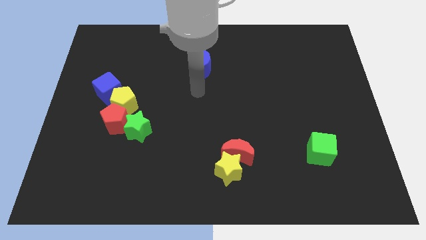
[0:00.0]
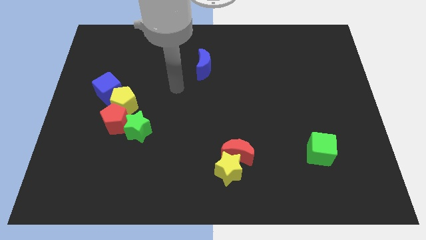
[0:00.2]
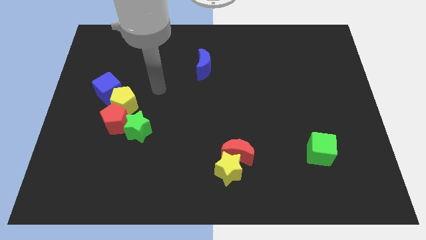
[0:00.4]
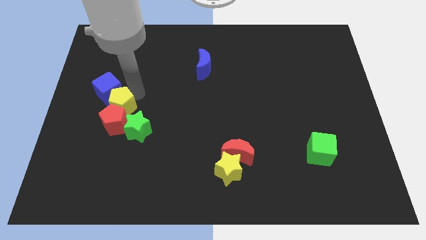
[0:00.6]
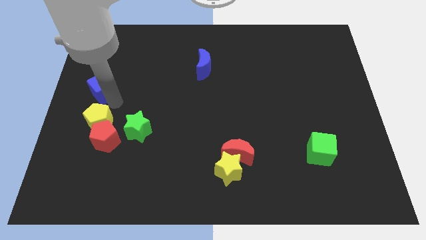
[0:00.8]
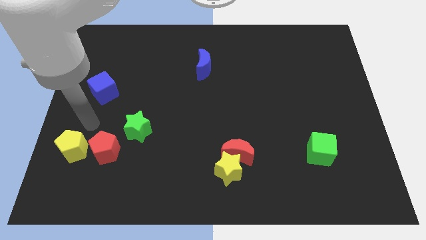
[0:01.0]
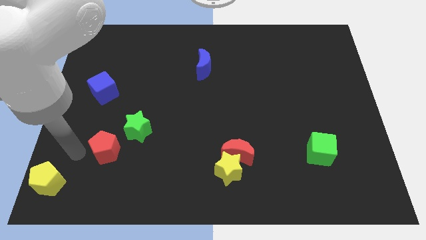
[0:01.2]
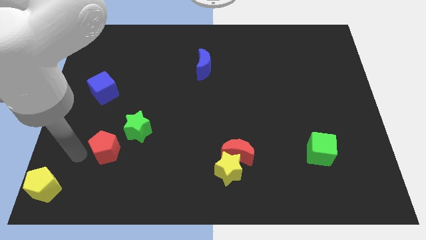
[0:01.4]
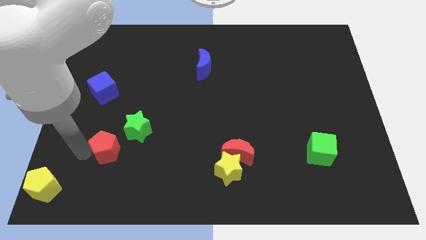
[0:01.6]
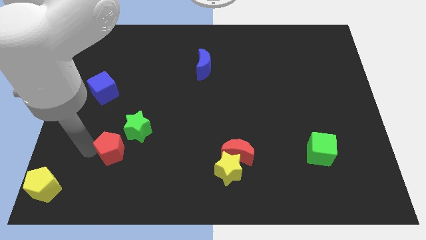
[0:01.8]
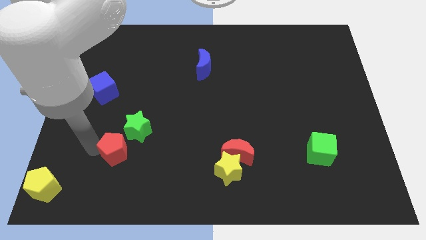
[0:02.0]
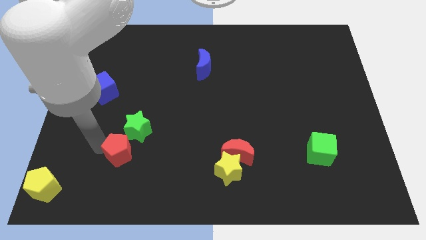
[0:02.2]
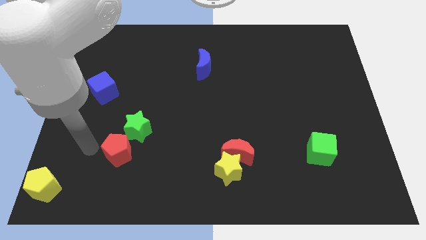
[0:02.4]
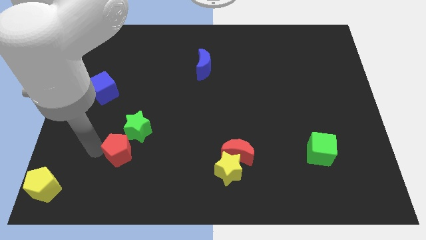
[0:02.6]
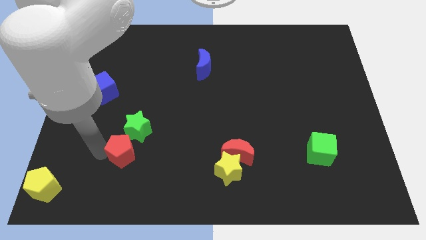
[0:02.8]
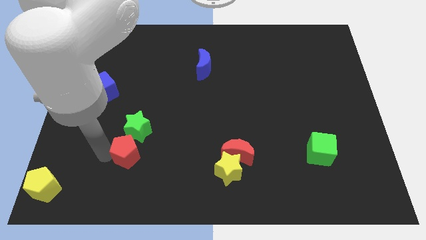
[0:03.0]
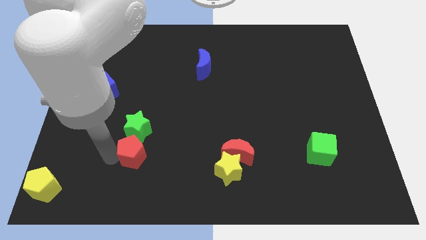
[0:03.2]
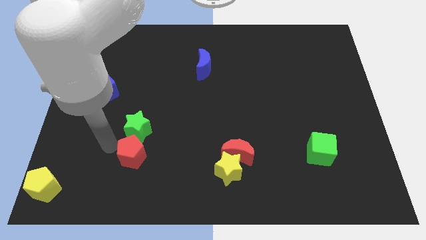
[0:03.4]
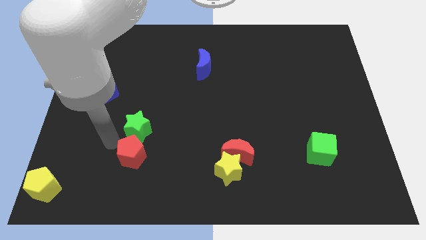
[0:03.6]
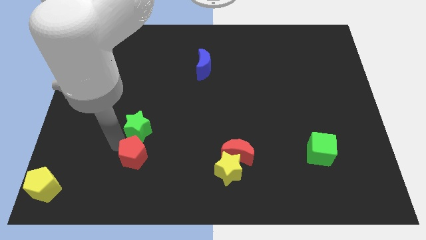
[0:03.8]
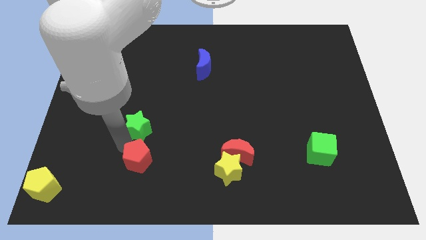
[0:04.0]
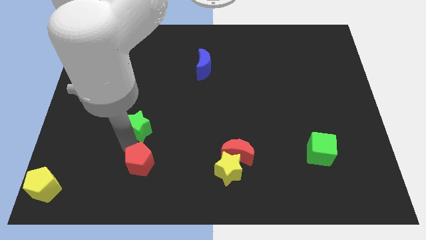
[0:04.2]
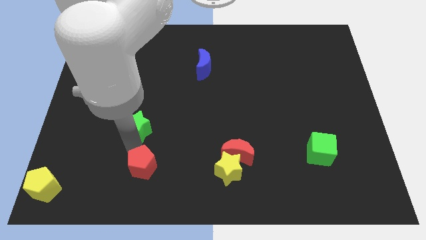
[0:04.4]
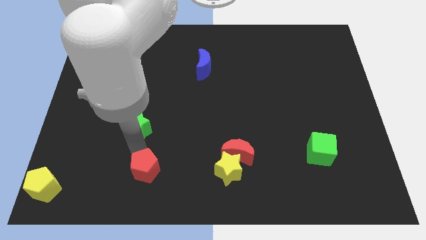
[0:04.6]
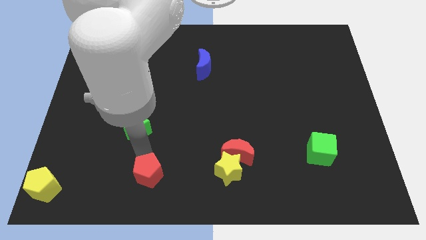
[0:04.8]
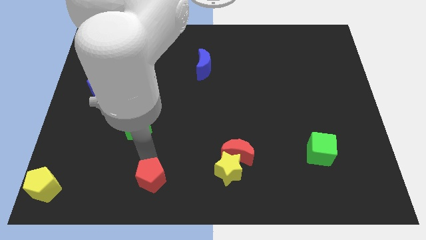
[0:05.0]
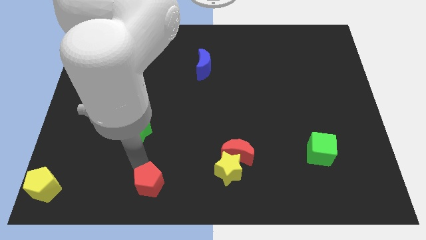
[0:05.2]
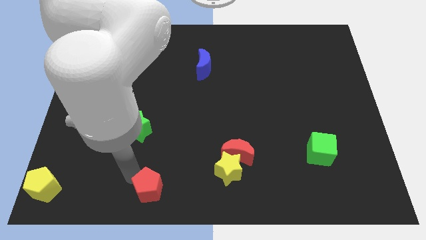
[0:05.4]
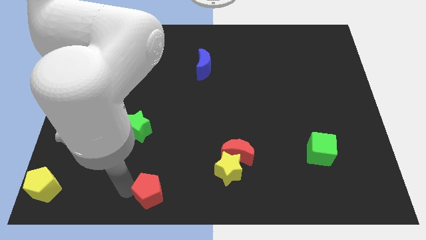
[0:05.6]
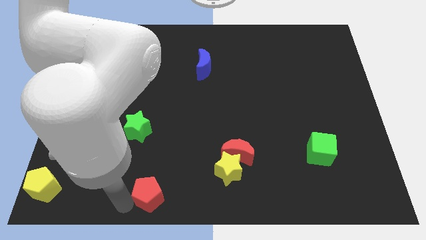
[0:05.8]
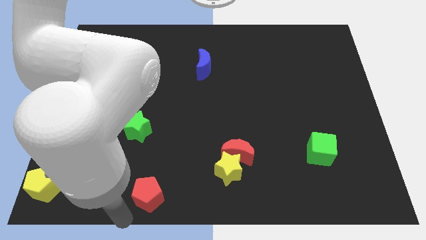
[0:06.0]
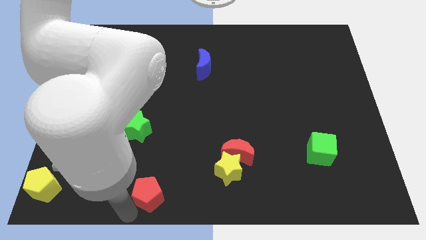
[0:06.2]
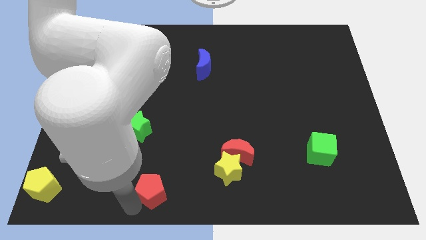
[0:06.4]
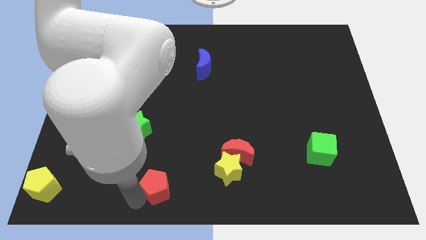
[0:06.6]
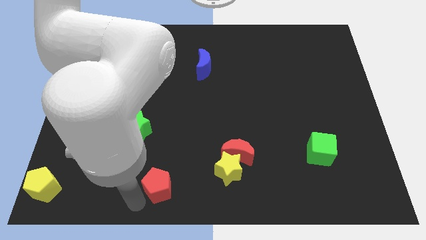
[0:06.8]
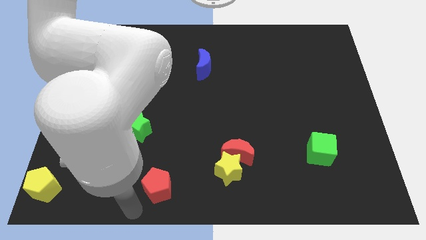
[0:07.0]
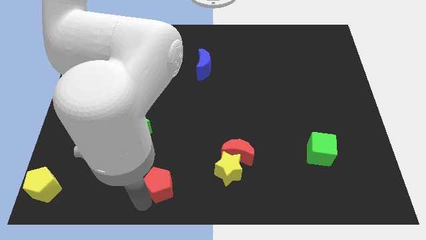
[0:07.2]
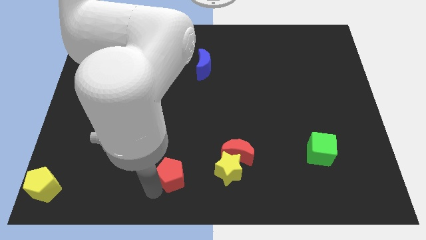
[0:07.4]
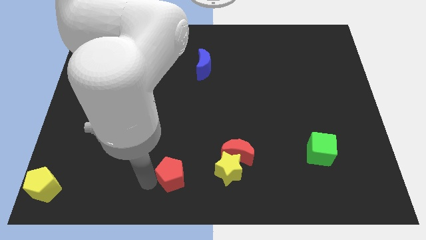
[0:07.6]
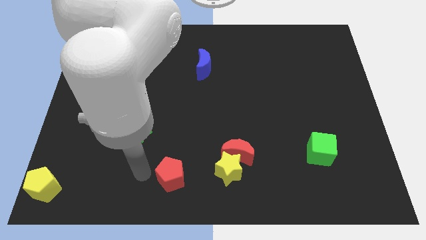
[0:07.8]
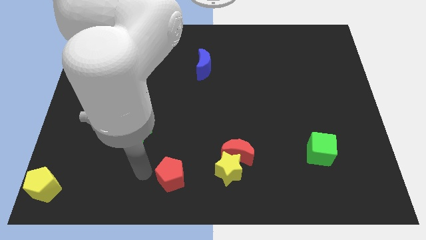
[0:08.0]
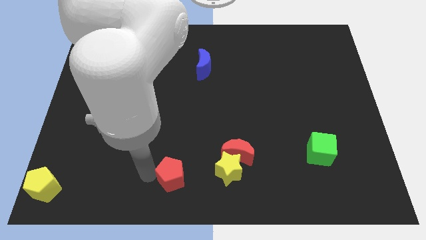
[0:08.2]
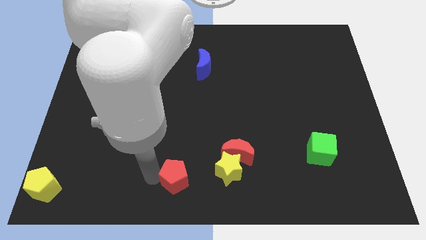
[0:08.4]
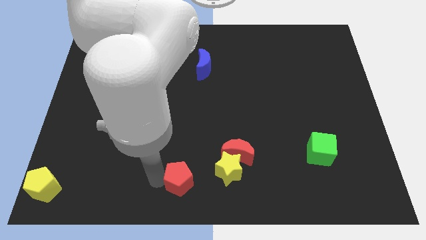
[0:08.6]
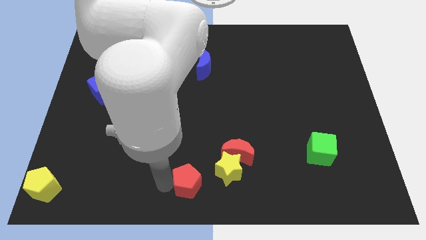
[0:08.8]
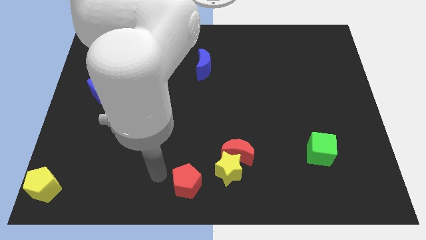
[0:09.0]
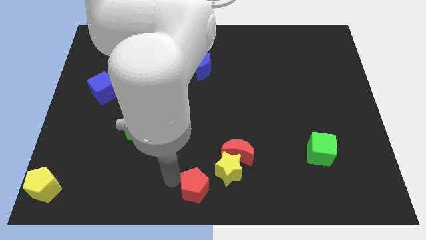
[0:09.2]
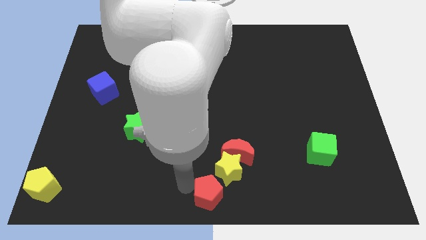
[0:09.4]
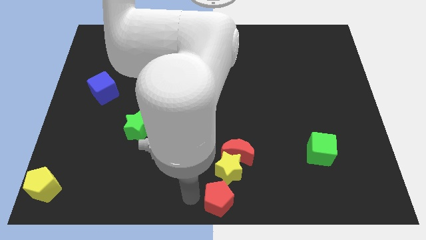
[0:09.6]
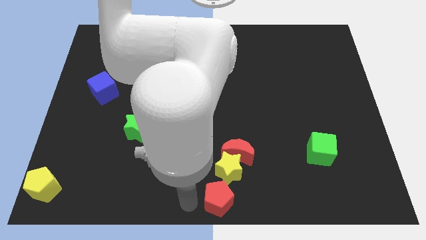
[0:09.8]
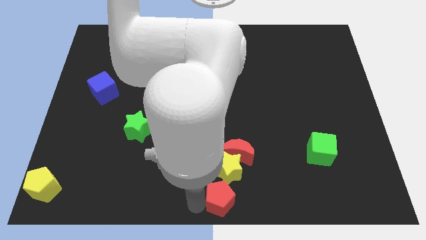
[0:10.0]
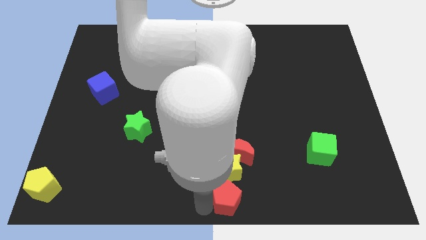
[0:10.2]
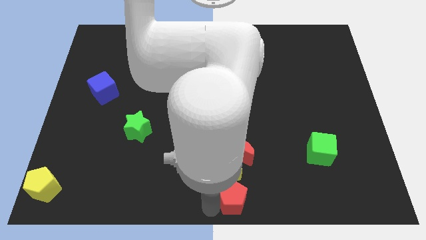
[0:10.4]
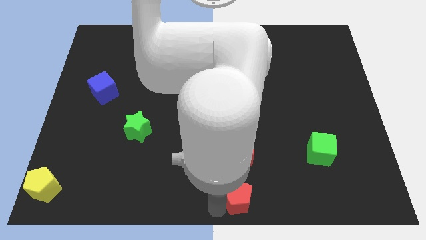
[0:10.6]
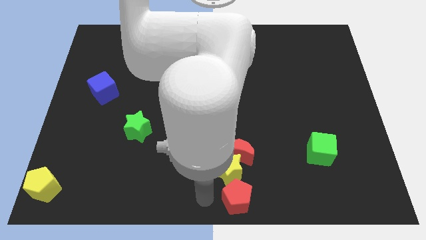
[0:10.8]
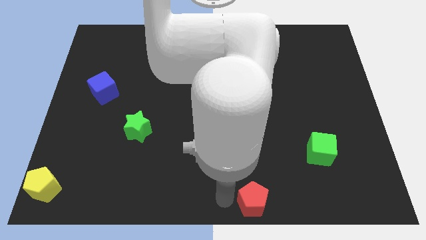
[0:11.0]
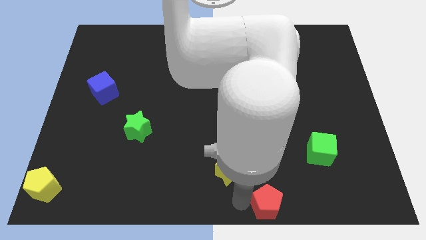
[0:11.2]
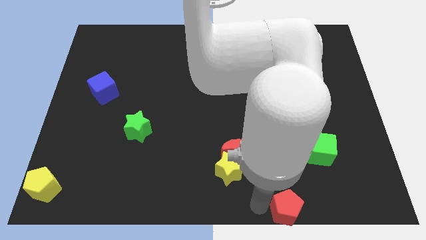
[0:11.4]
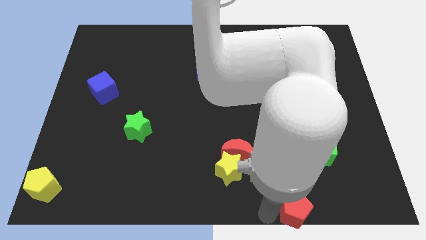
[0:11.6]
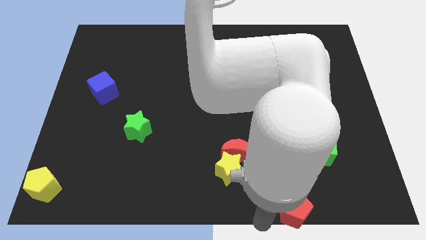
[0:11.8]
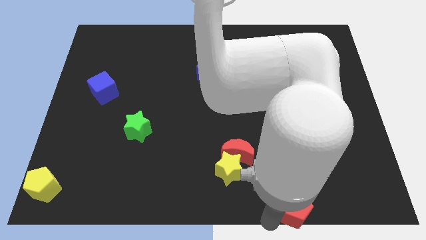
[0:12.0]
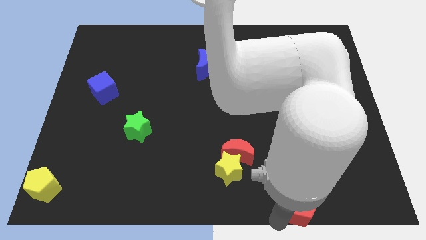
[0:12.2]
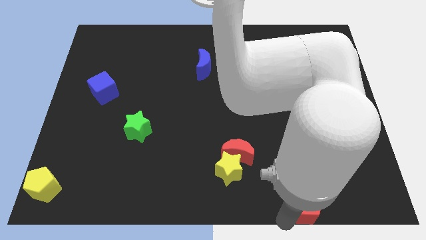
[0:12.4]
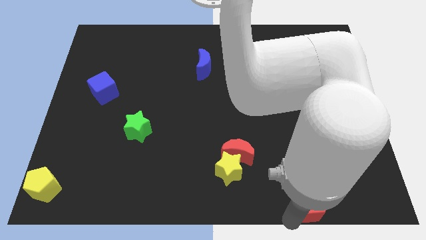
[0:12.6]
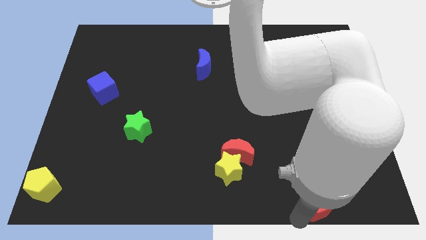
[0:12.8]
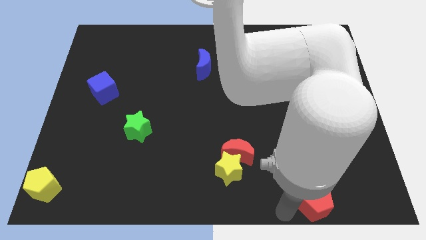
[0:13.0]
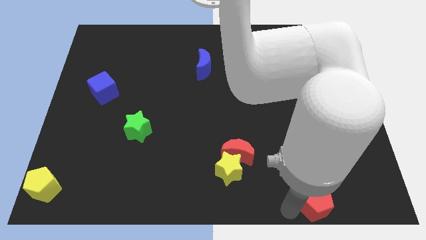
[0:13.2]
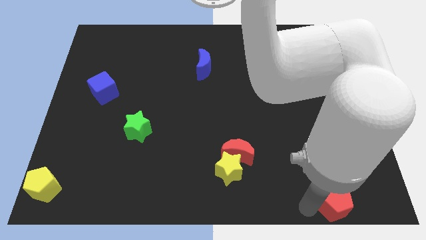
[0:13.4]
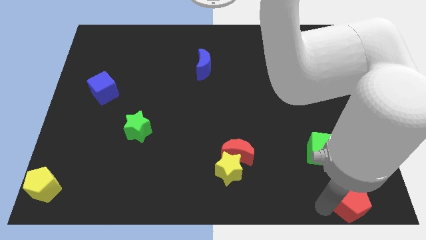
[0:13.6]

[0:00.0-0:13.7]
move the red pentagon to the bottom right corner
